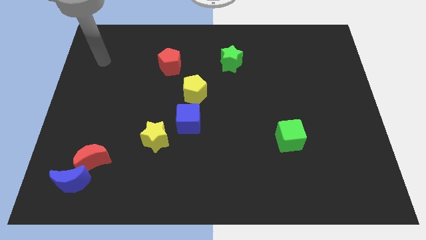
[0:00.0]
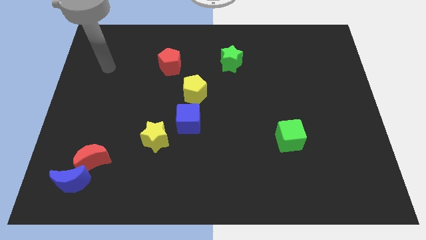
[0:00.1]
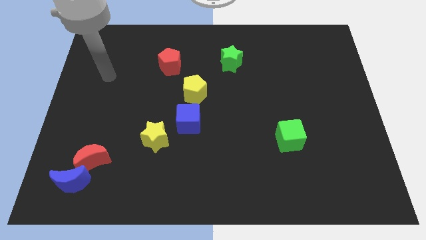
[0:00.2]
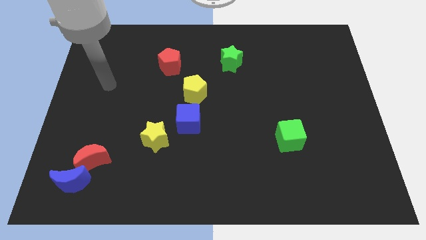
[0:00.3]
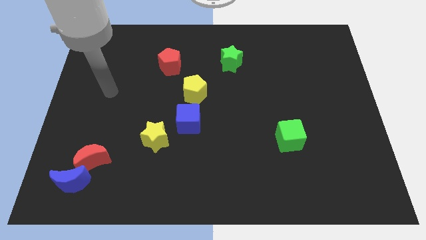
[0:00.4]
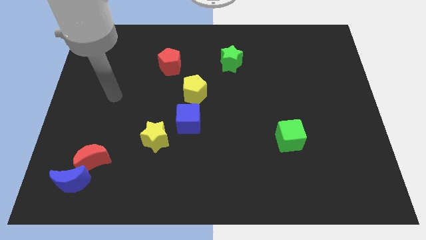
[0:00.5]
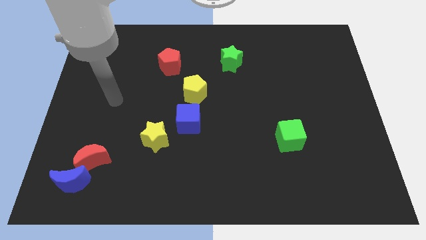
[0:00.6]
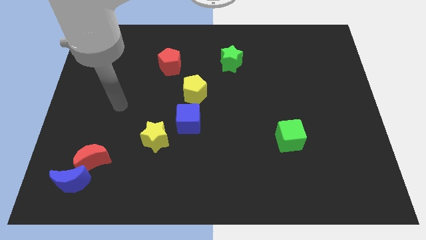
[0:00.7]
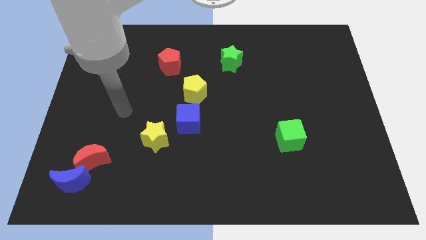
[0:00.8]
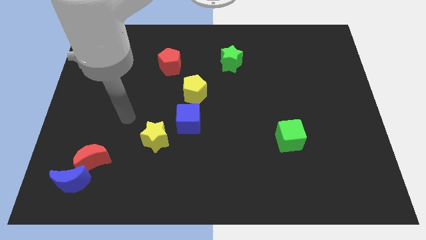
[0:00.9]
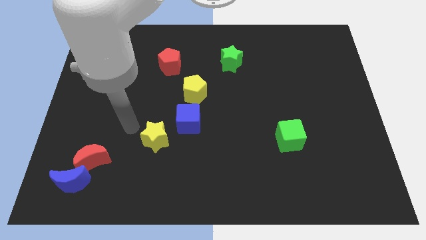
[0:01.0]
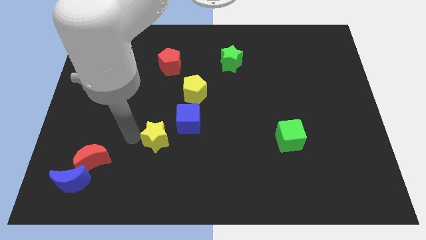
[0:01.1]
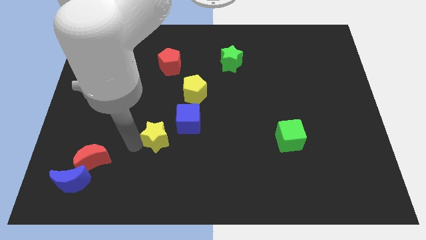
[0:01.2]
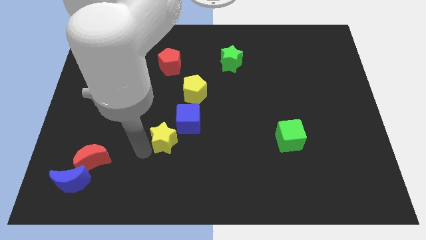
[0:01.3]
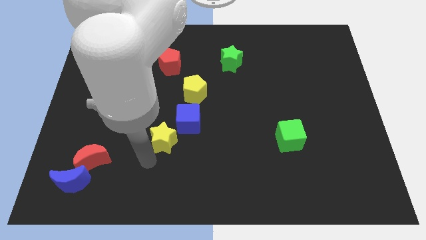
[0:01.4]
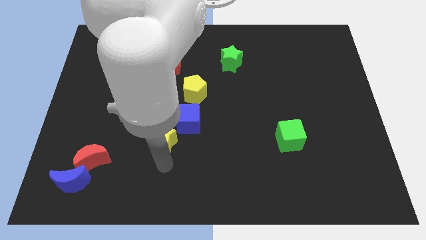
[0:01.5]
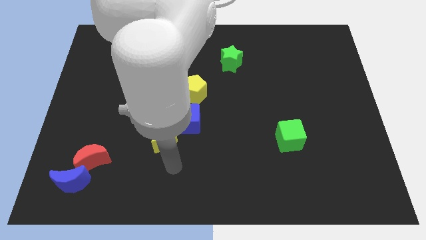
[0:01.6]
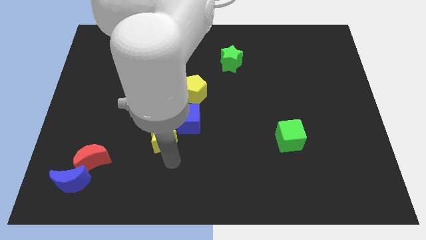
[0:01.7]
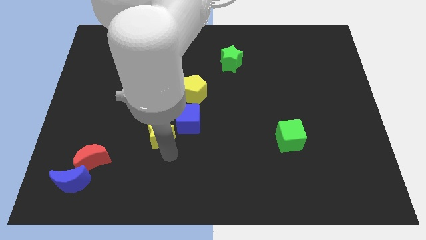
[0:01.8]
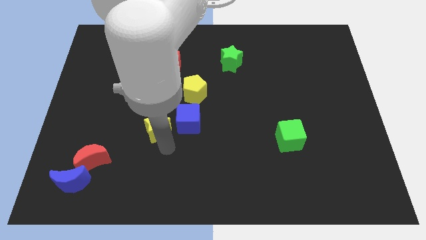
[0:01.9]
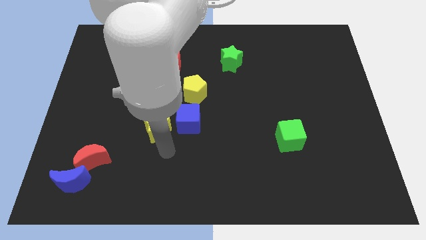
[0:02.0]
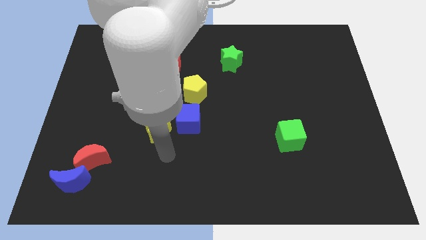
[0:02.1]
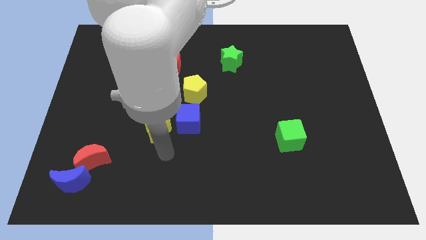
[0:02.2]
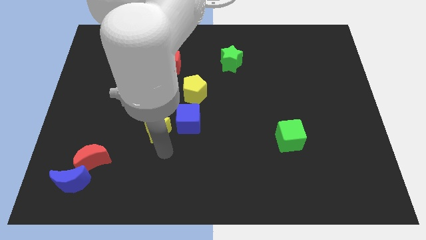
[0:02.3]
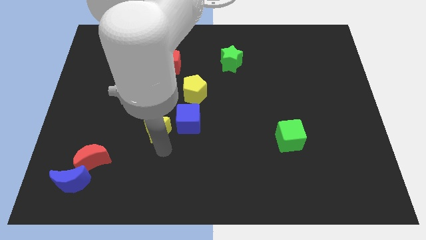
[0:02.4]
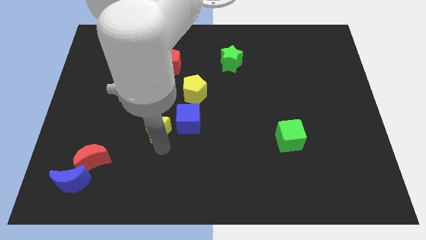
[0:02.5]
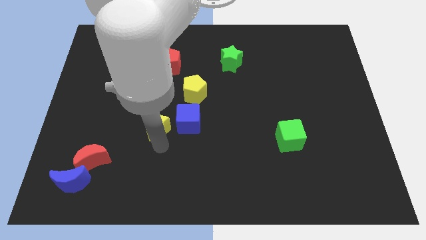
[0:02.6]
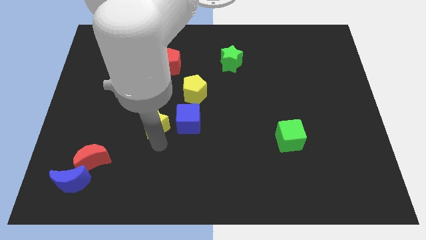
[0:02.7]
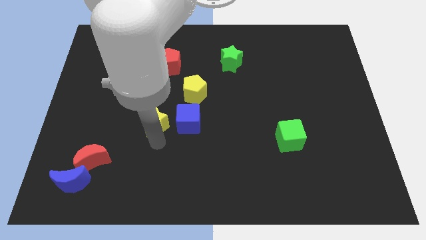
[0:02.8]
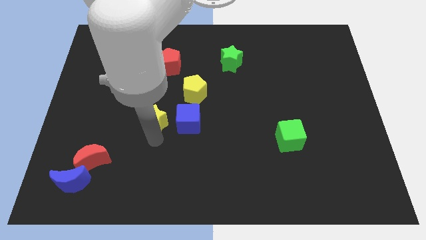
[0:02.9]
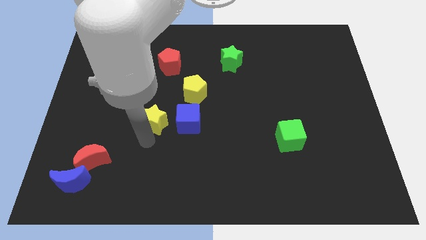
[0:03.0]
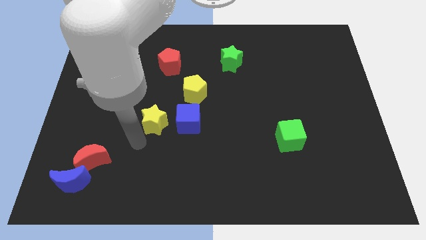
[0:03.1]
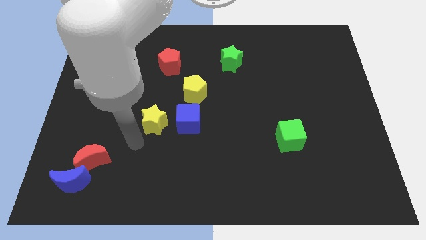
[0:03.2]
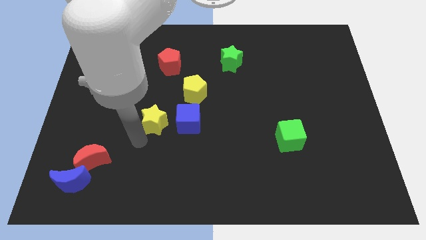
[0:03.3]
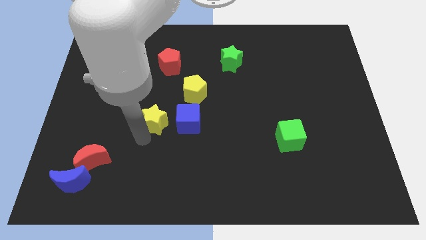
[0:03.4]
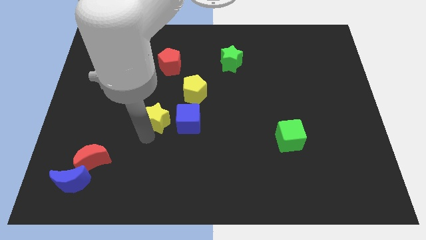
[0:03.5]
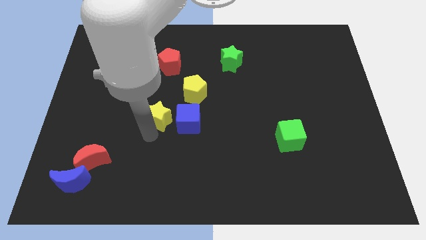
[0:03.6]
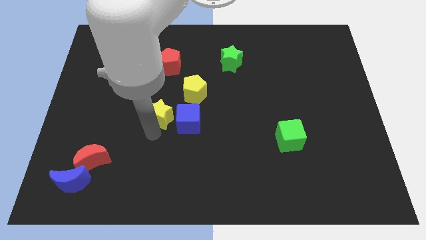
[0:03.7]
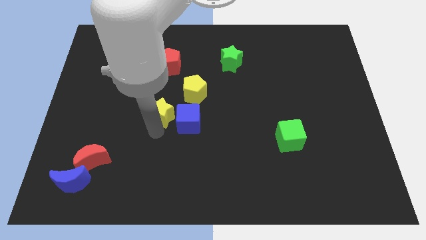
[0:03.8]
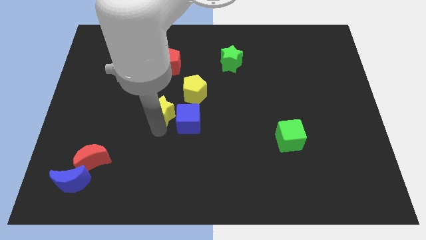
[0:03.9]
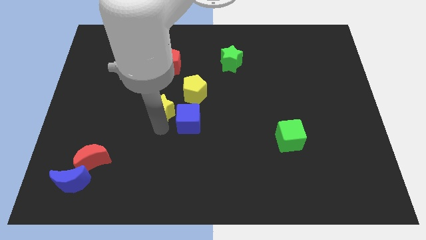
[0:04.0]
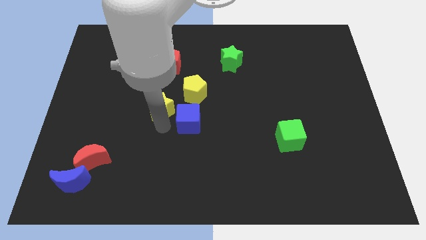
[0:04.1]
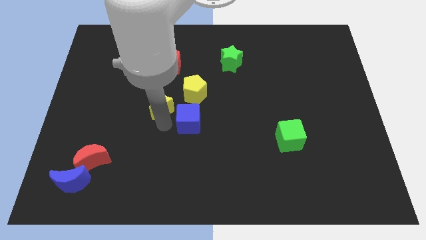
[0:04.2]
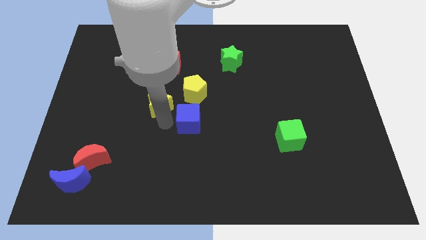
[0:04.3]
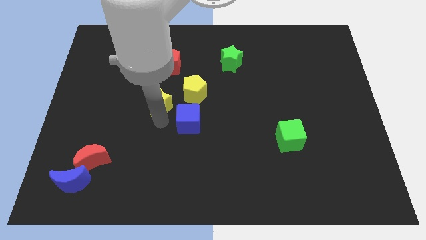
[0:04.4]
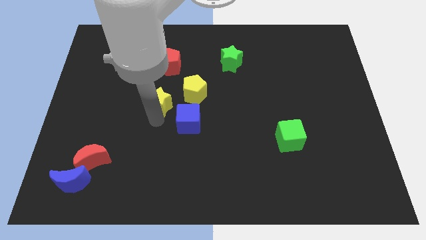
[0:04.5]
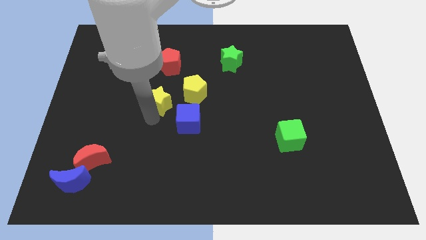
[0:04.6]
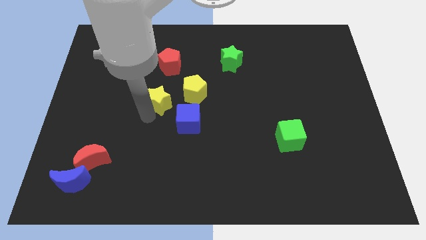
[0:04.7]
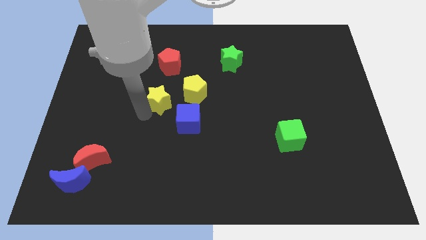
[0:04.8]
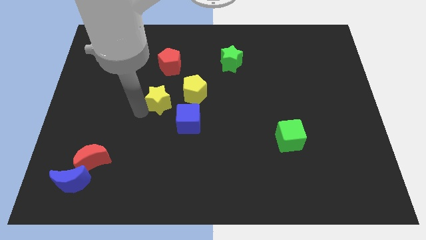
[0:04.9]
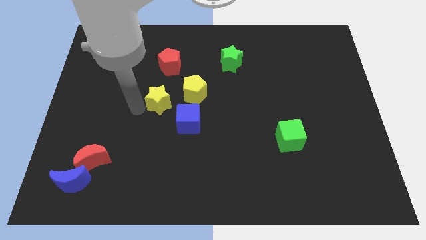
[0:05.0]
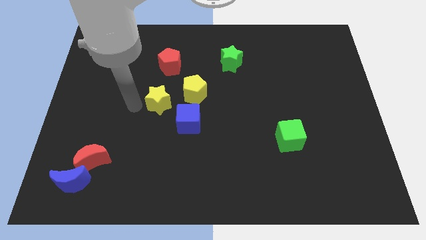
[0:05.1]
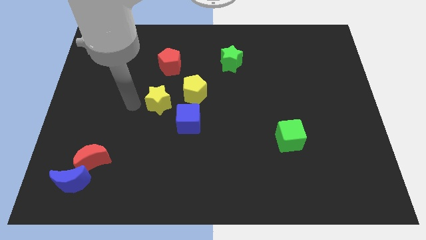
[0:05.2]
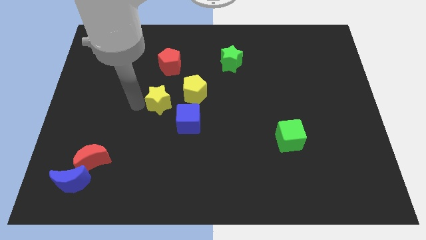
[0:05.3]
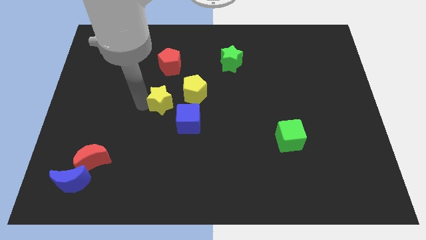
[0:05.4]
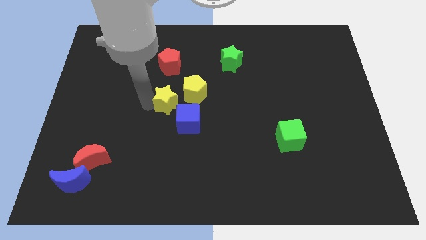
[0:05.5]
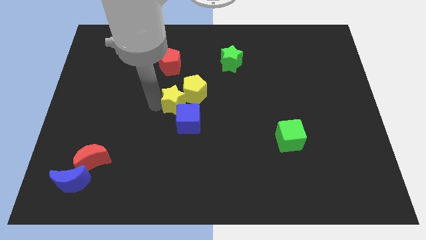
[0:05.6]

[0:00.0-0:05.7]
put the yellow star next to the yellow pentagon

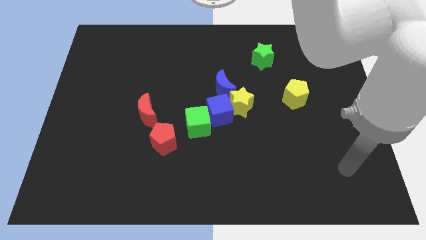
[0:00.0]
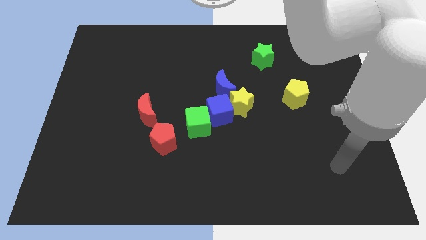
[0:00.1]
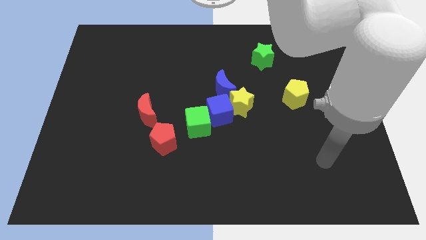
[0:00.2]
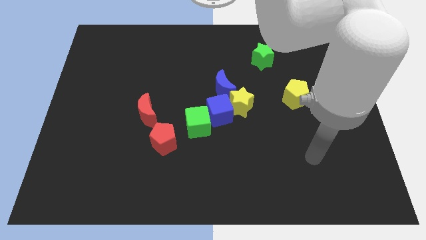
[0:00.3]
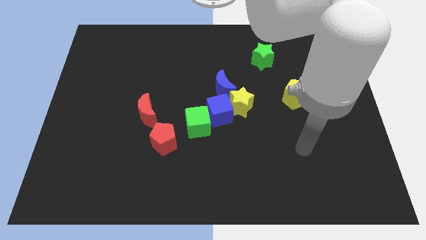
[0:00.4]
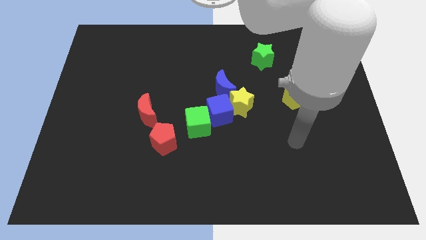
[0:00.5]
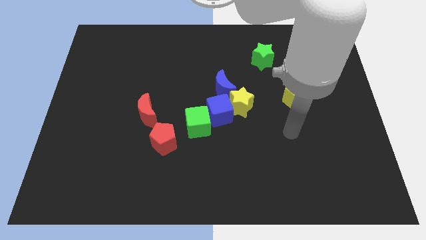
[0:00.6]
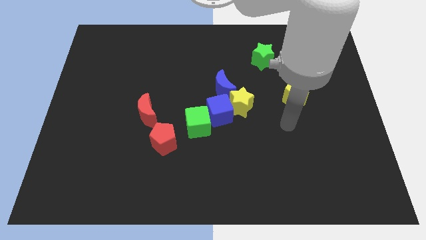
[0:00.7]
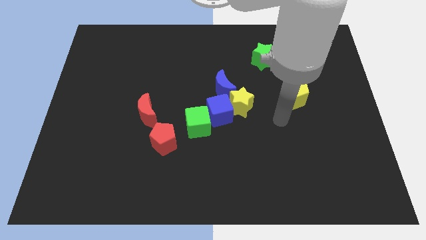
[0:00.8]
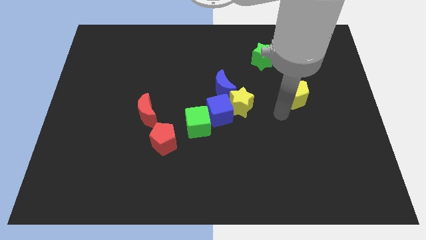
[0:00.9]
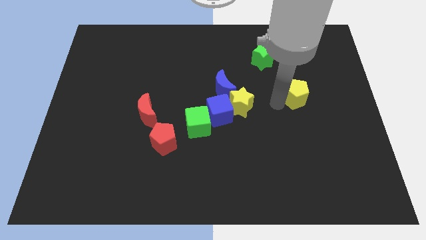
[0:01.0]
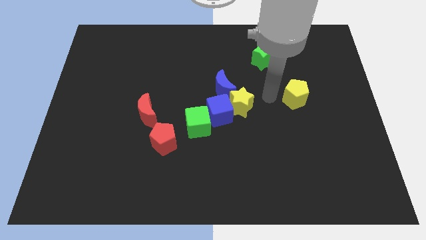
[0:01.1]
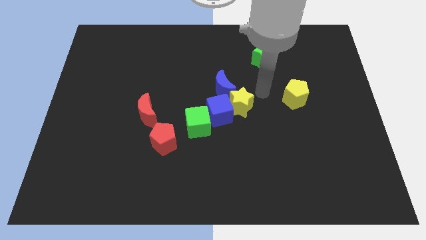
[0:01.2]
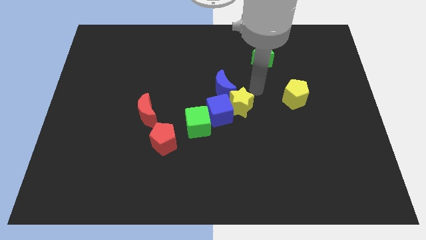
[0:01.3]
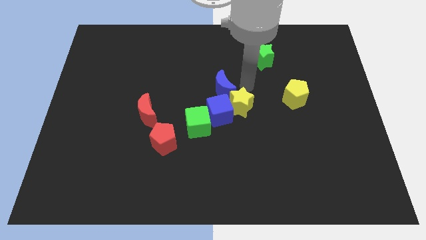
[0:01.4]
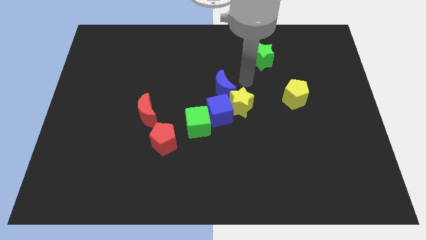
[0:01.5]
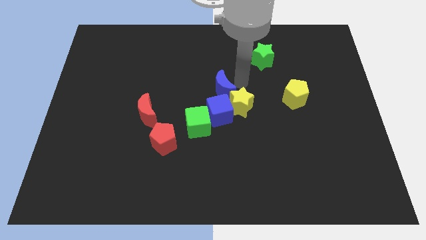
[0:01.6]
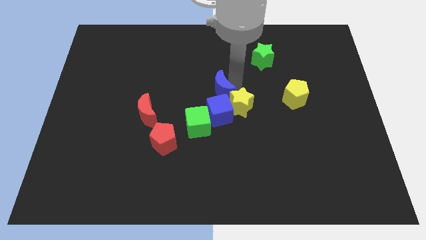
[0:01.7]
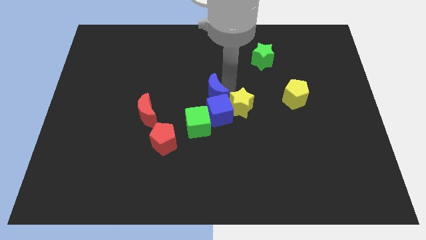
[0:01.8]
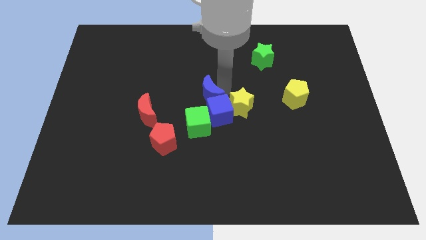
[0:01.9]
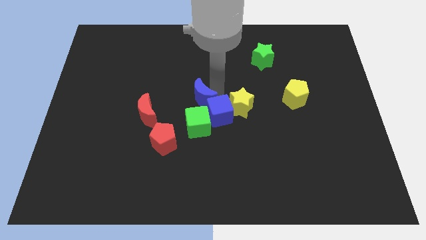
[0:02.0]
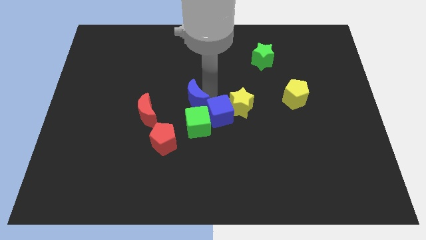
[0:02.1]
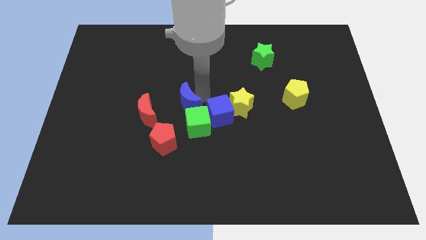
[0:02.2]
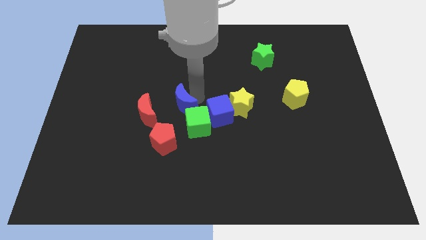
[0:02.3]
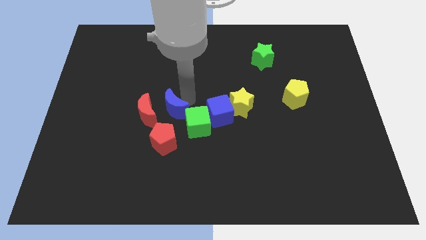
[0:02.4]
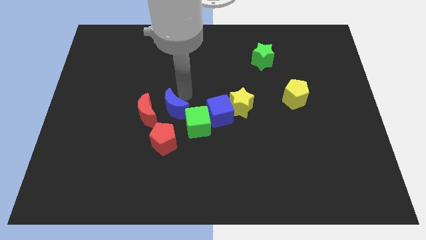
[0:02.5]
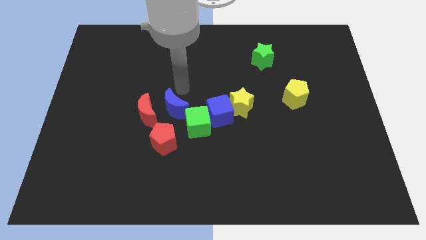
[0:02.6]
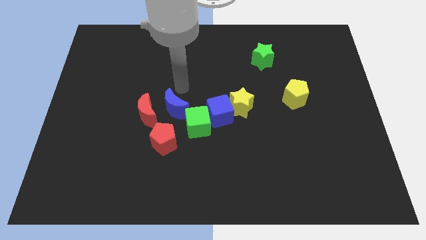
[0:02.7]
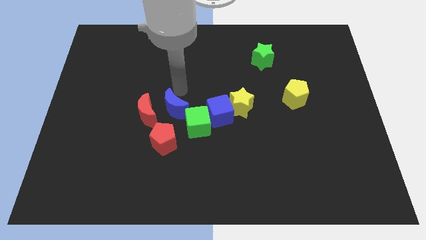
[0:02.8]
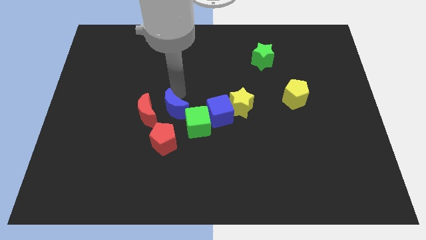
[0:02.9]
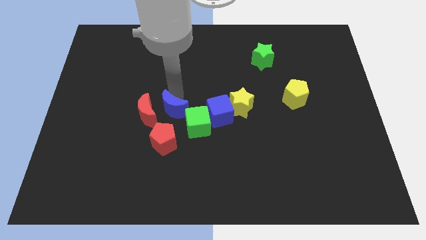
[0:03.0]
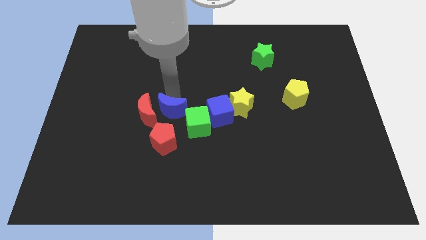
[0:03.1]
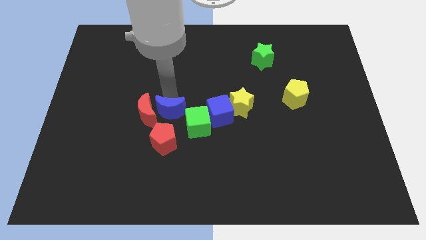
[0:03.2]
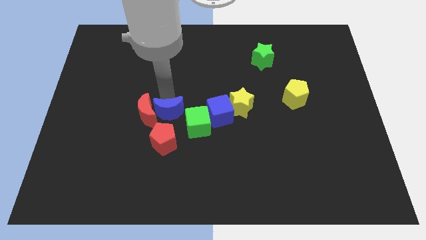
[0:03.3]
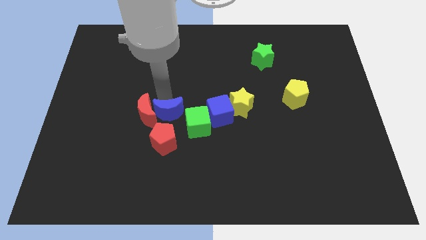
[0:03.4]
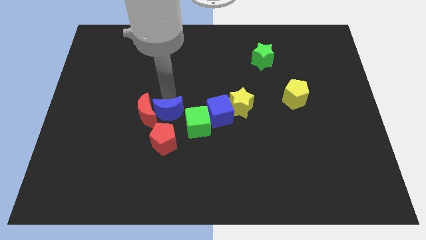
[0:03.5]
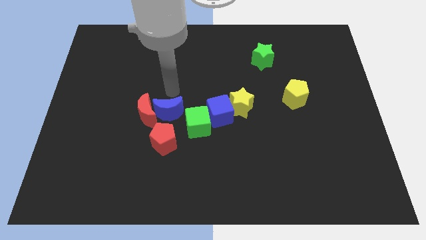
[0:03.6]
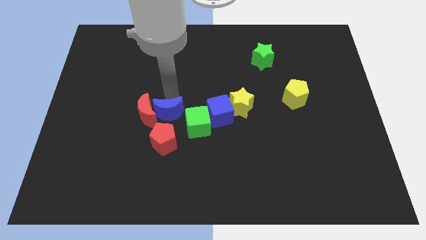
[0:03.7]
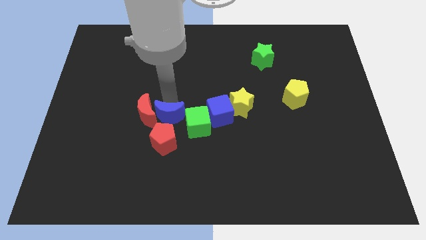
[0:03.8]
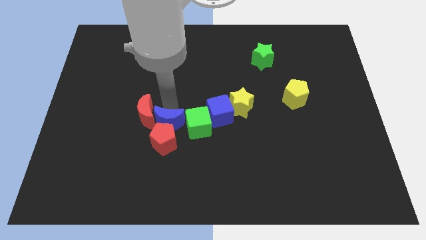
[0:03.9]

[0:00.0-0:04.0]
put the blue moon close to the red pentagon
